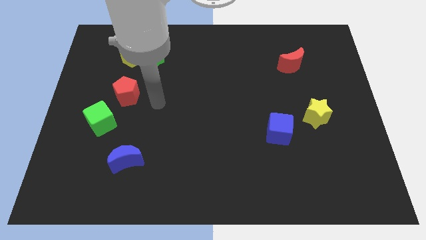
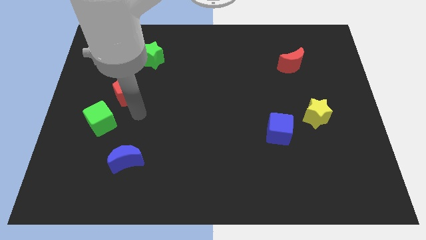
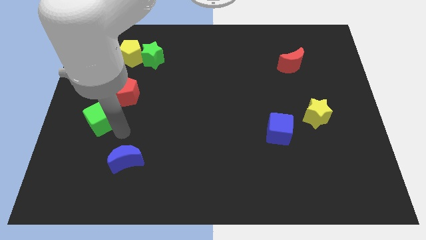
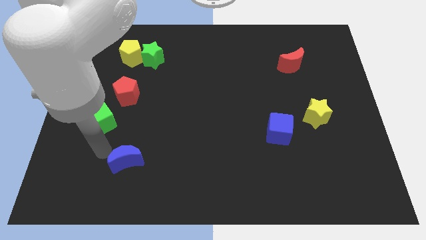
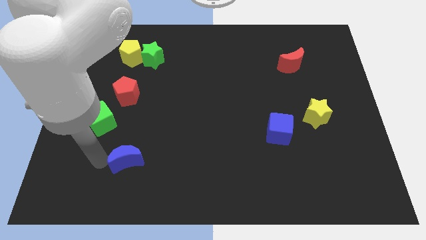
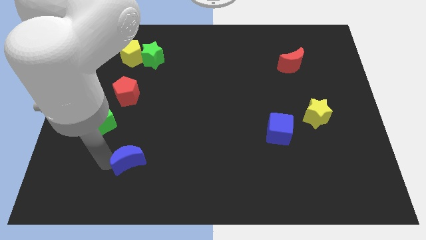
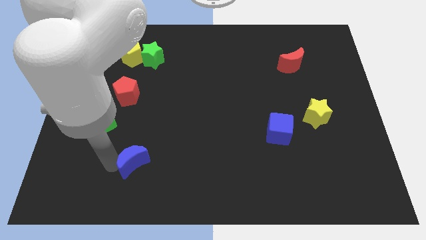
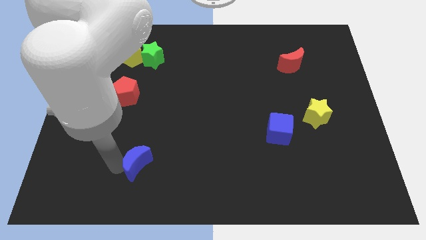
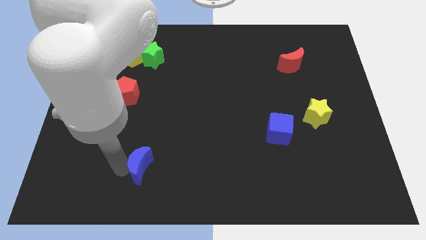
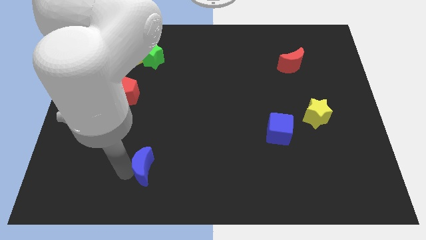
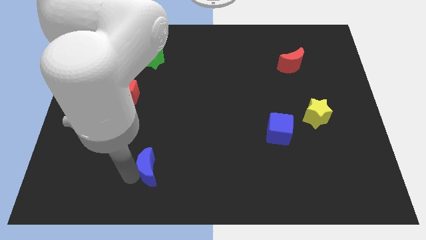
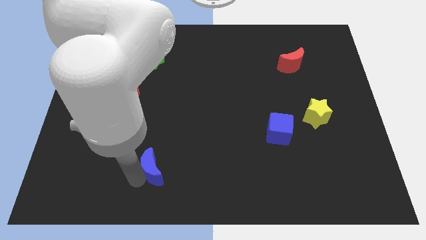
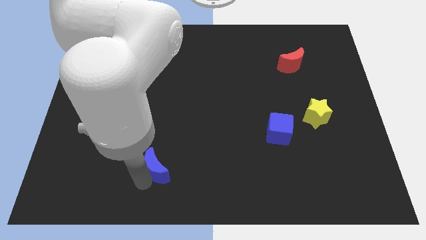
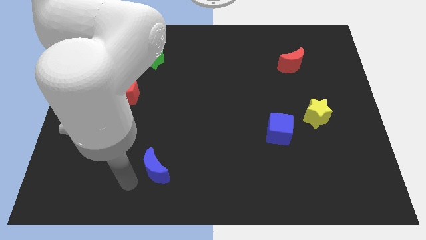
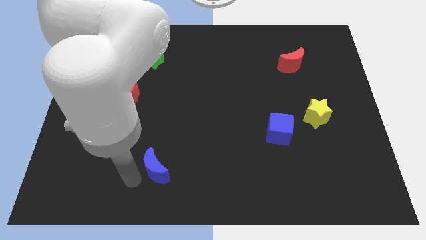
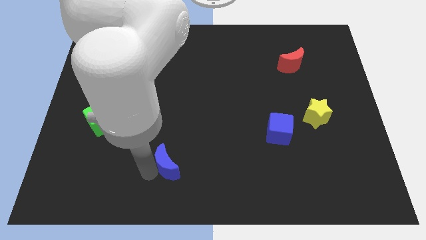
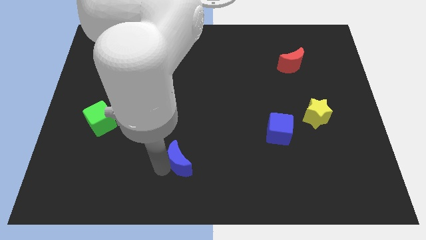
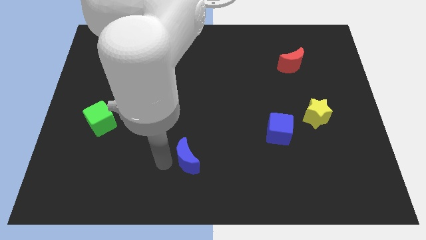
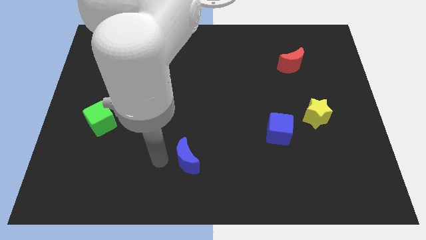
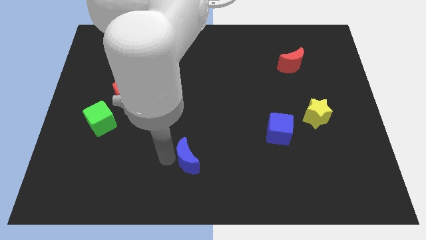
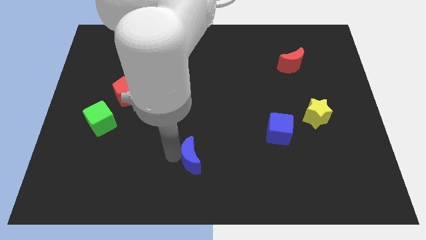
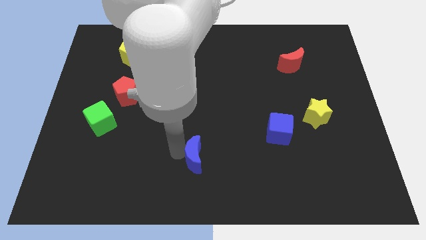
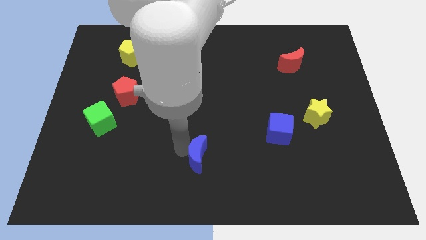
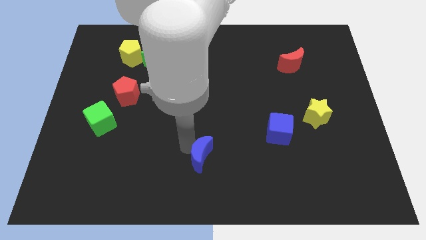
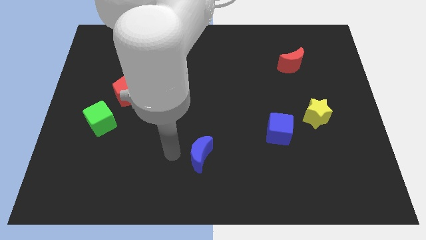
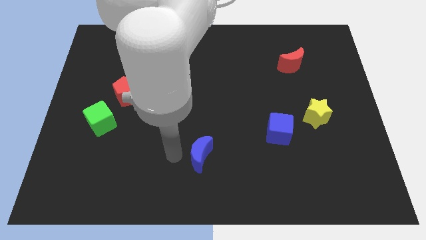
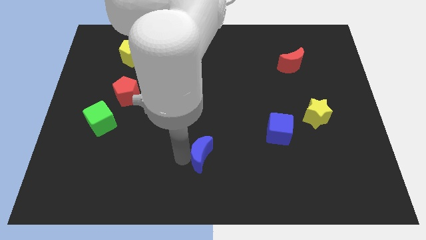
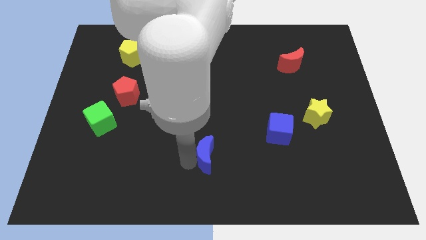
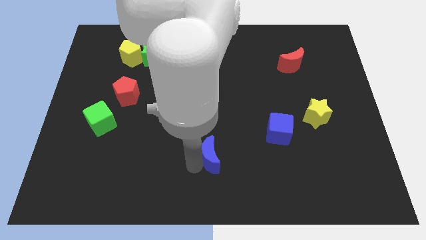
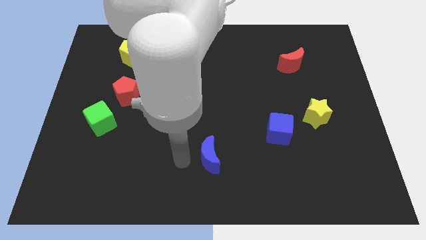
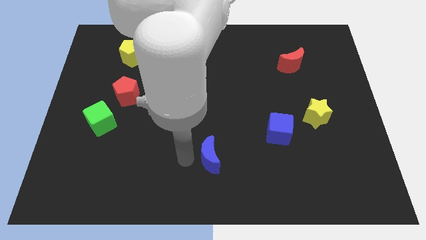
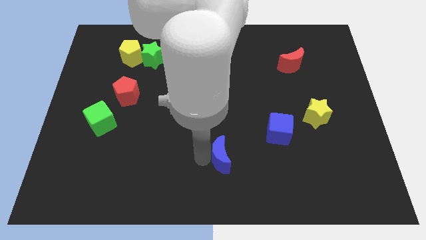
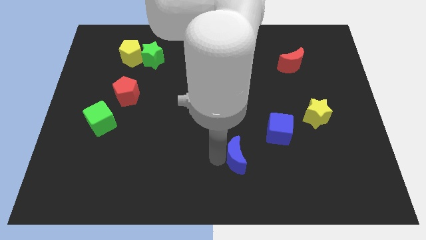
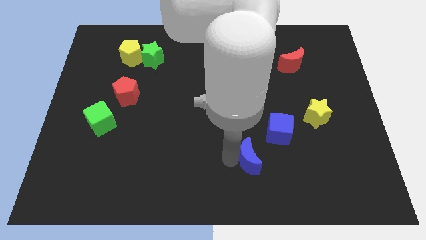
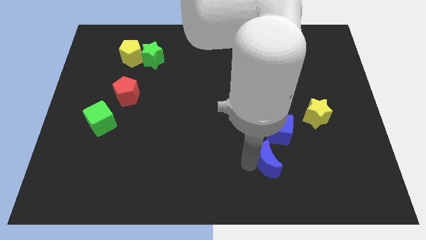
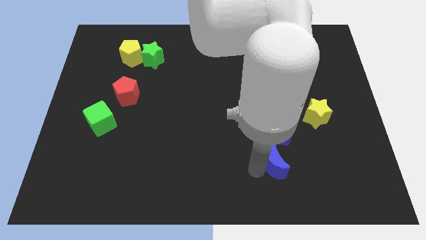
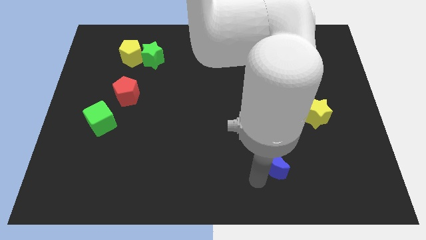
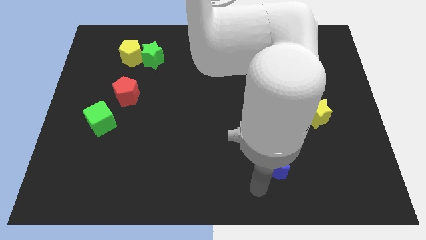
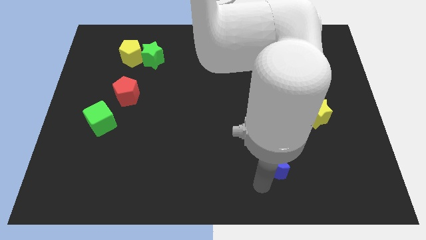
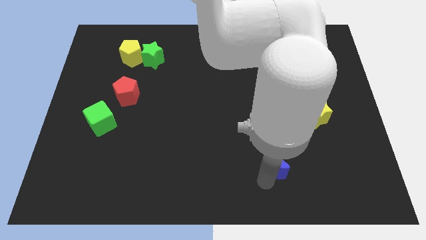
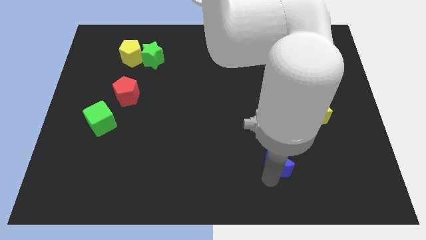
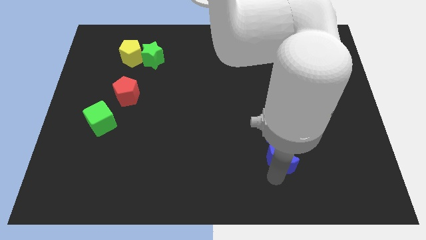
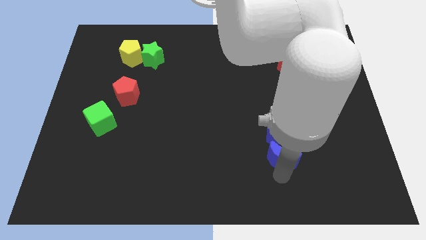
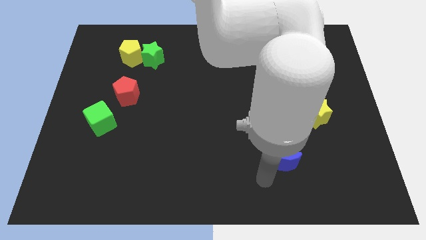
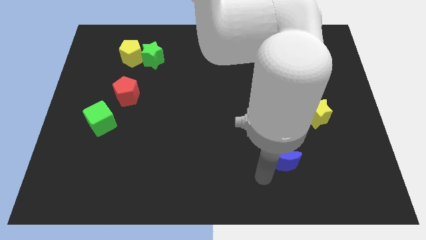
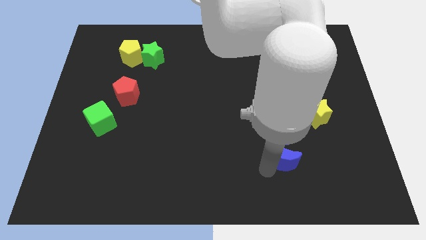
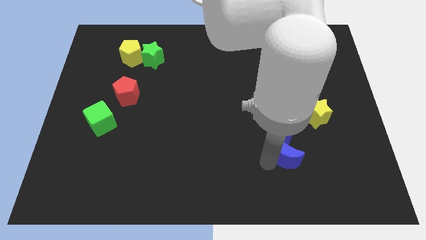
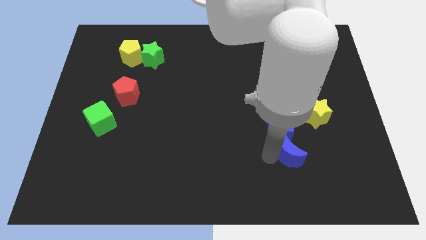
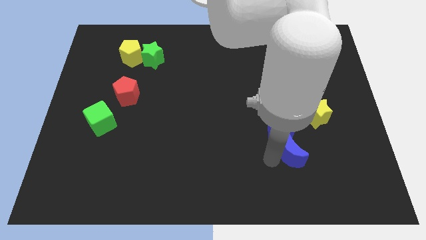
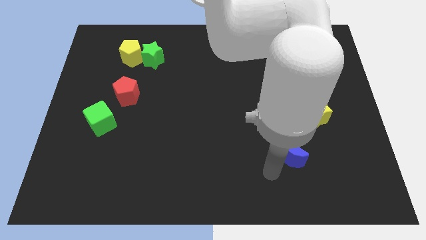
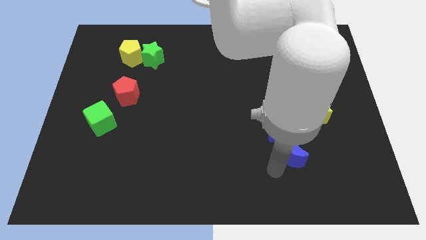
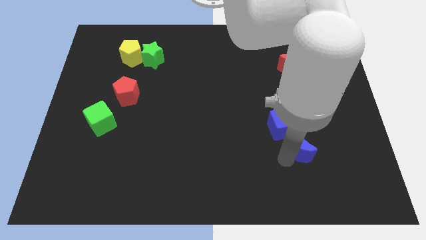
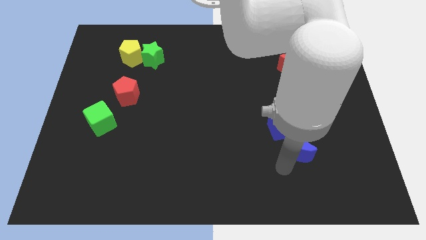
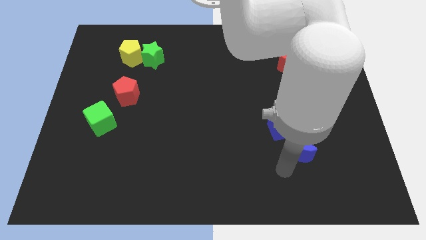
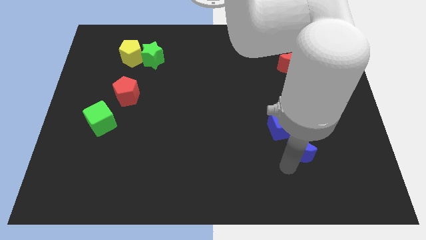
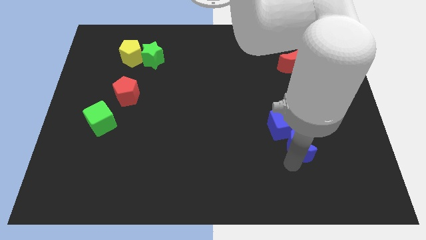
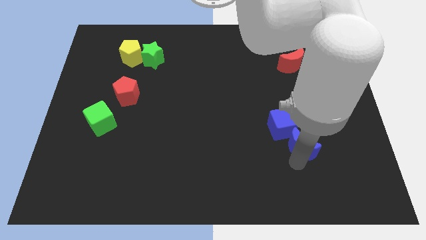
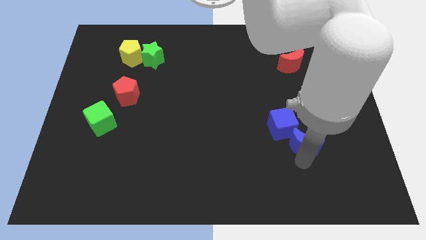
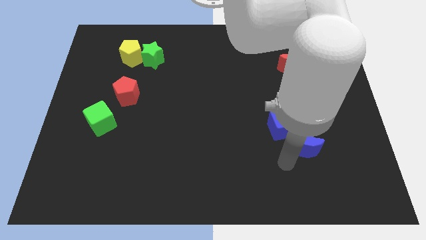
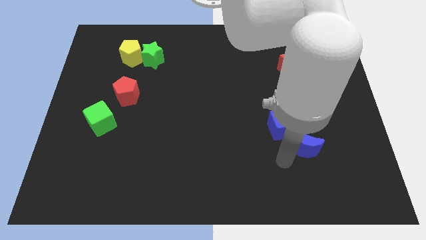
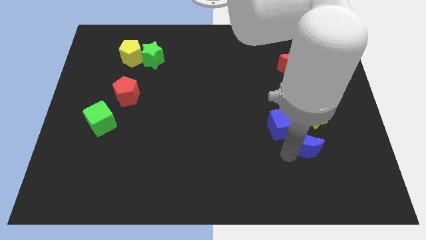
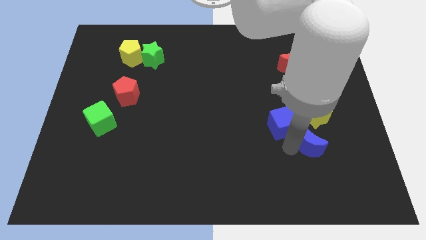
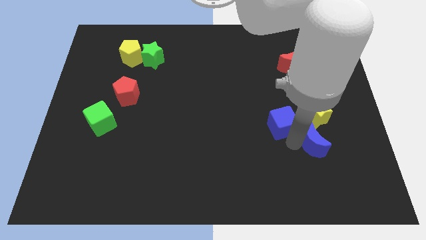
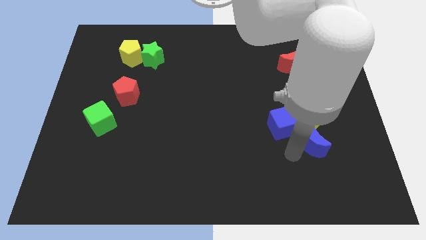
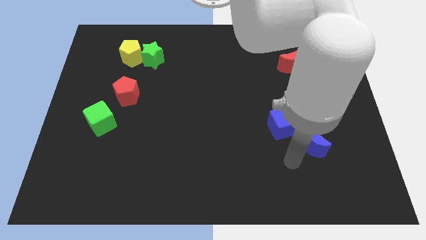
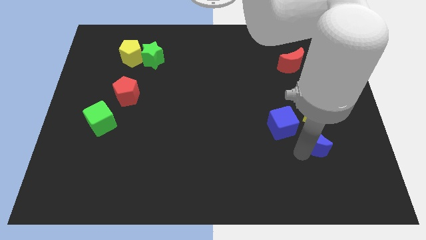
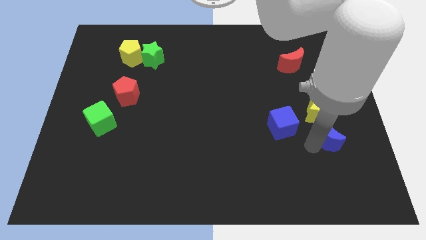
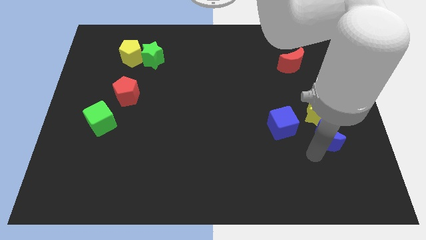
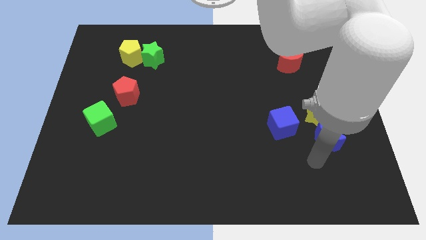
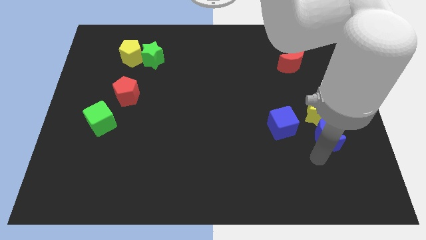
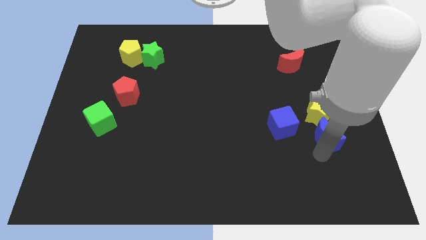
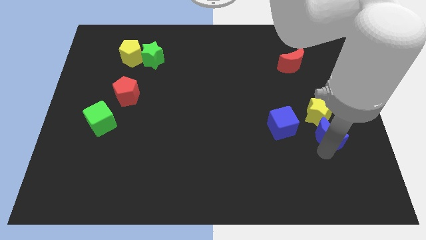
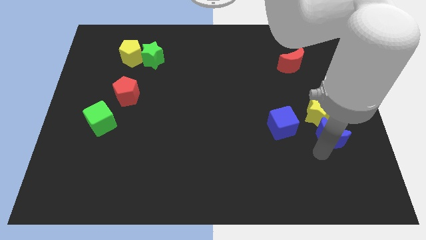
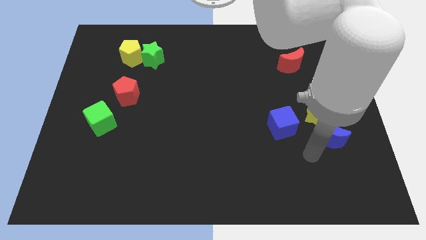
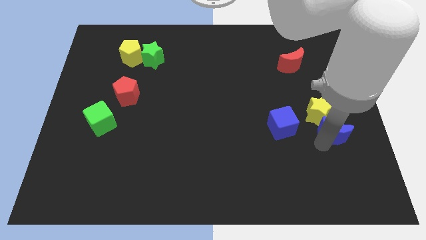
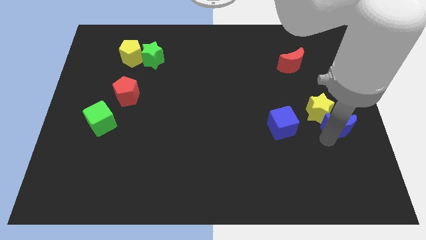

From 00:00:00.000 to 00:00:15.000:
move the blue moon to the center right
